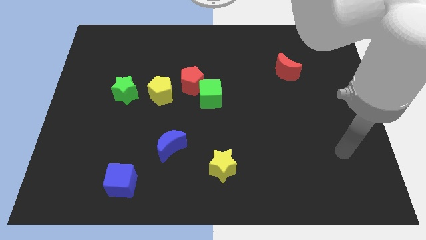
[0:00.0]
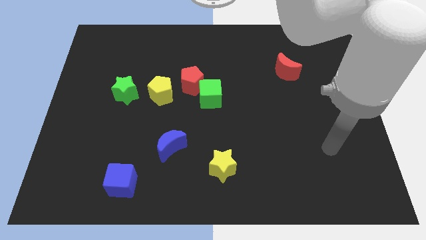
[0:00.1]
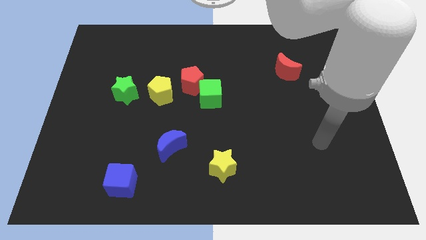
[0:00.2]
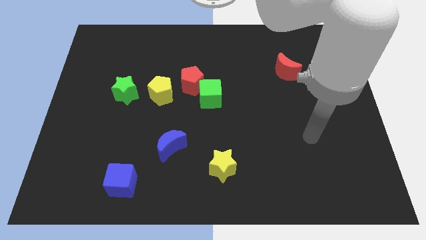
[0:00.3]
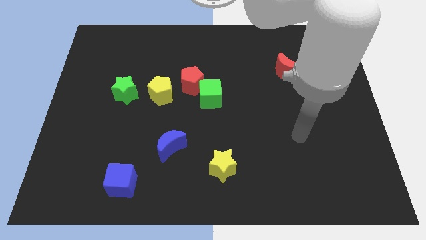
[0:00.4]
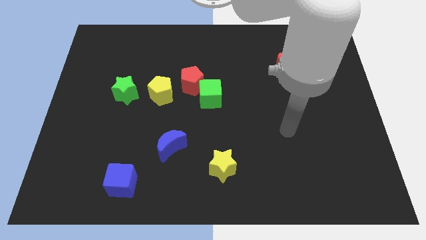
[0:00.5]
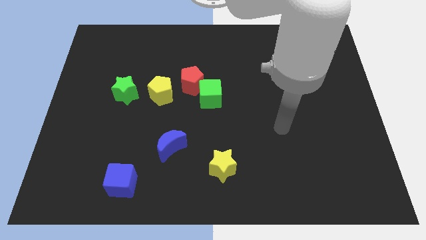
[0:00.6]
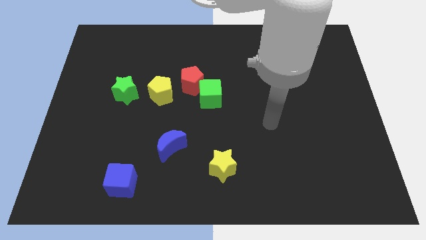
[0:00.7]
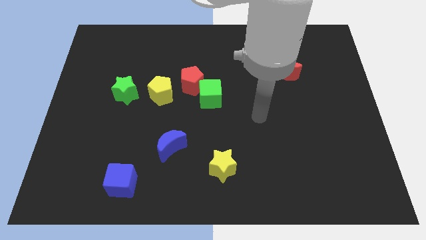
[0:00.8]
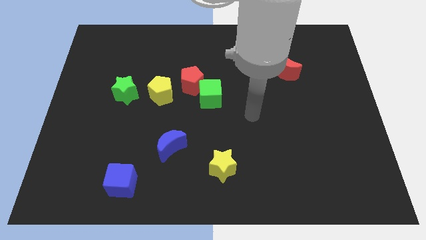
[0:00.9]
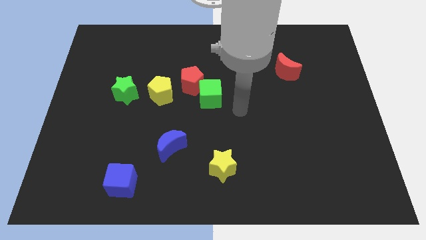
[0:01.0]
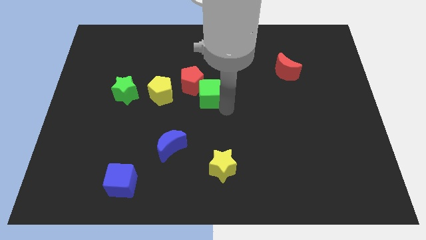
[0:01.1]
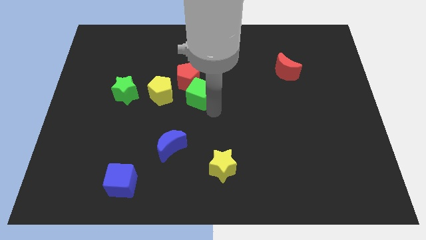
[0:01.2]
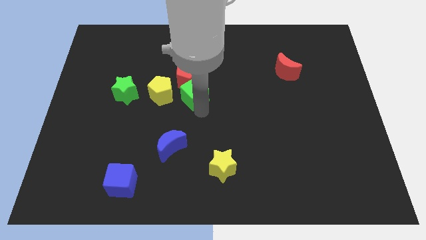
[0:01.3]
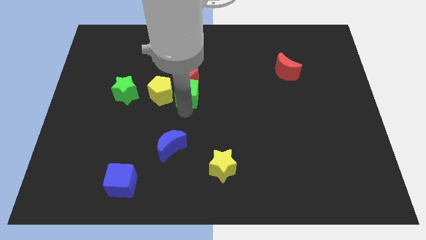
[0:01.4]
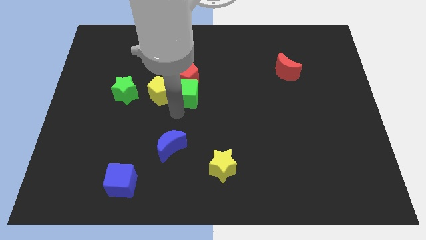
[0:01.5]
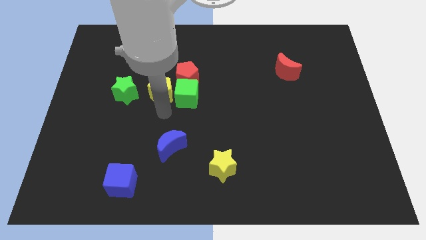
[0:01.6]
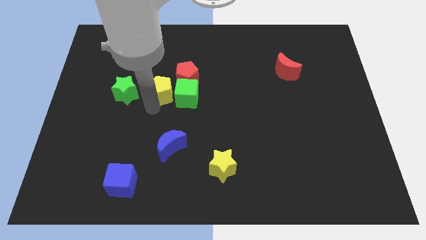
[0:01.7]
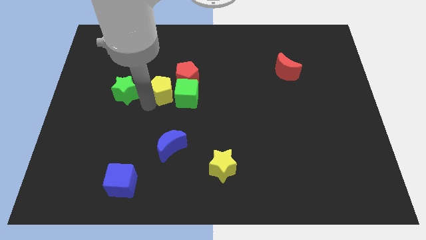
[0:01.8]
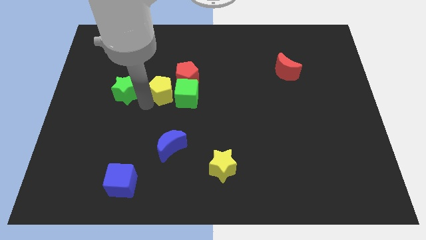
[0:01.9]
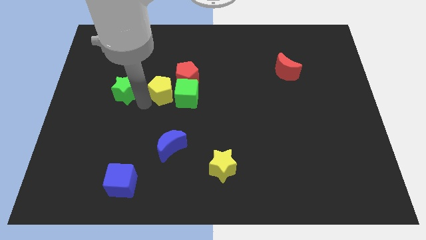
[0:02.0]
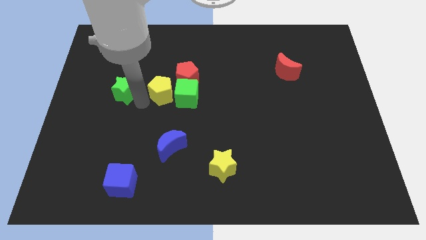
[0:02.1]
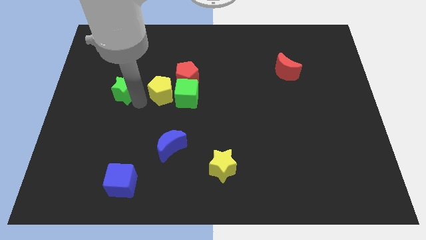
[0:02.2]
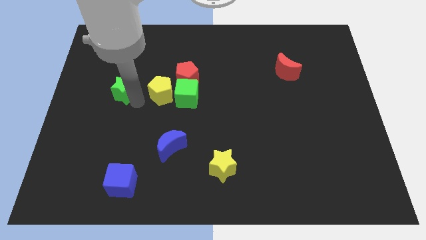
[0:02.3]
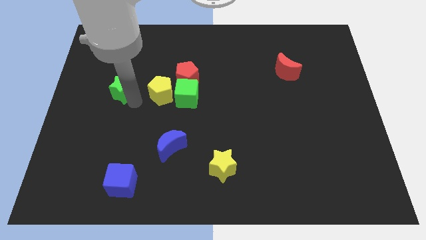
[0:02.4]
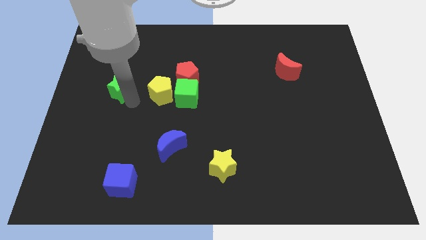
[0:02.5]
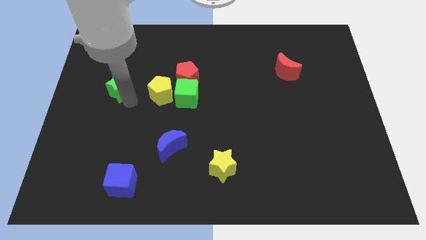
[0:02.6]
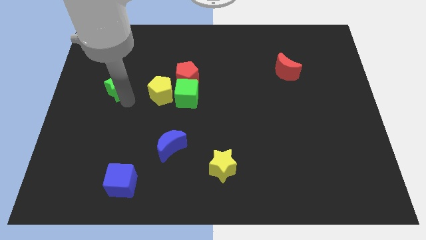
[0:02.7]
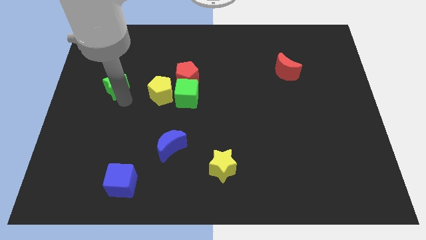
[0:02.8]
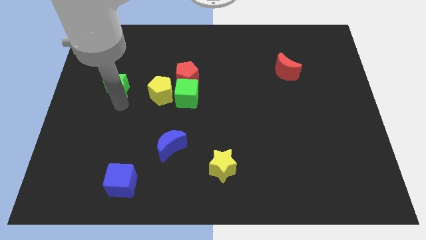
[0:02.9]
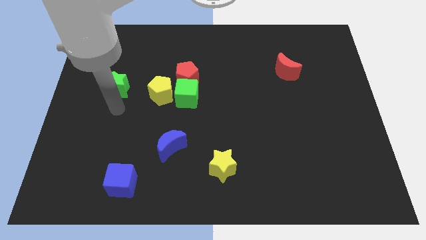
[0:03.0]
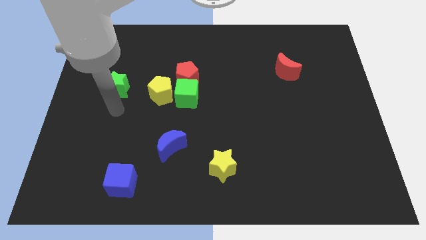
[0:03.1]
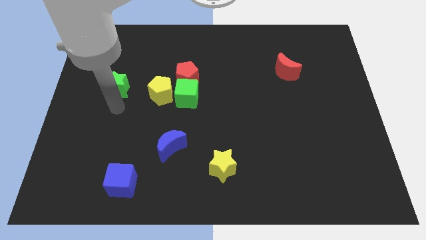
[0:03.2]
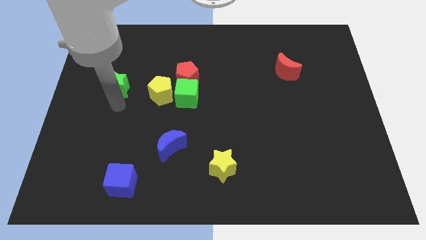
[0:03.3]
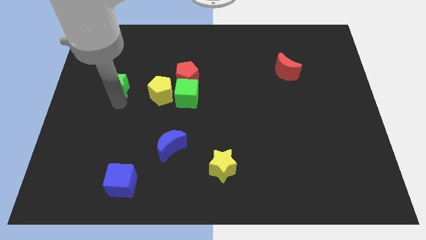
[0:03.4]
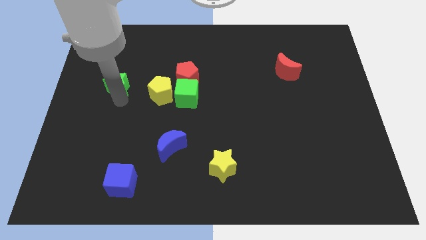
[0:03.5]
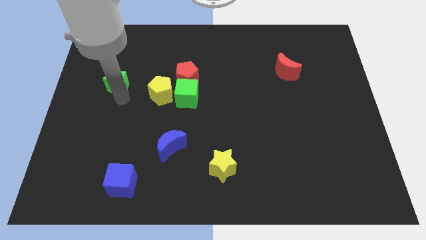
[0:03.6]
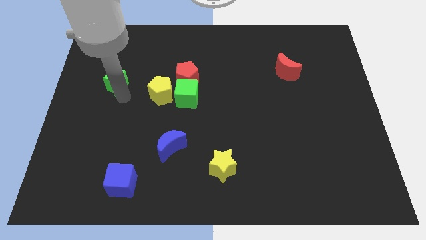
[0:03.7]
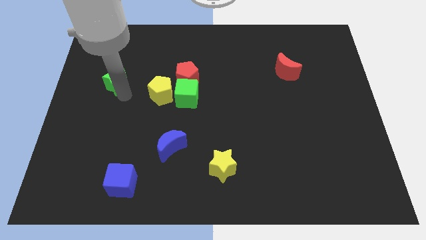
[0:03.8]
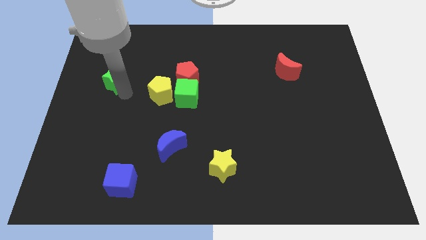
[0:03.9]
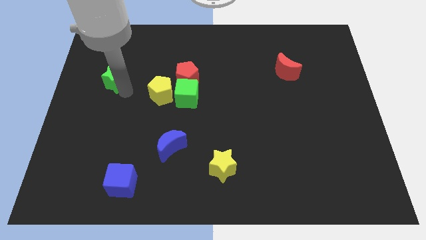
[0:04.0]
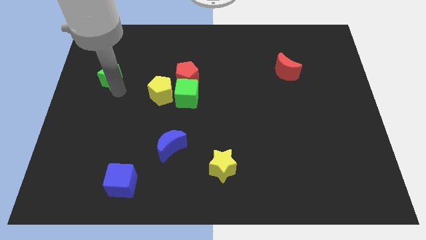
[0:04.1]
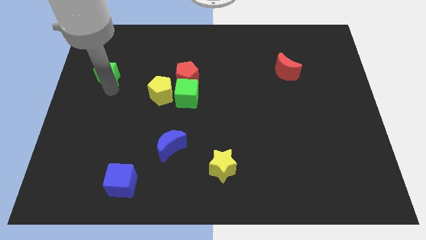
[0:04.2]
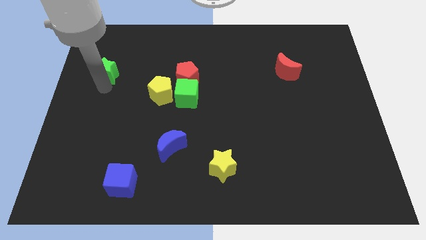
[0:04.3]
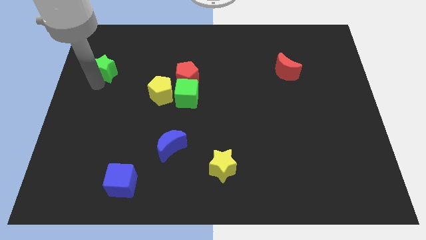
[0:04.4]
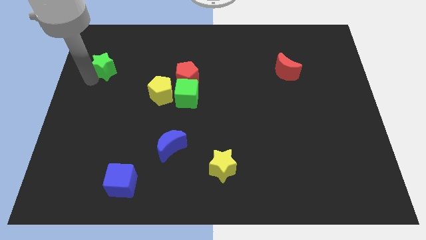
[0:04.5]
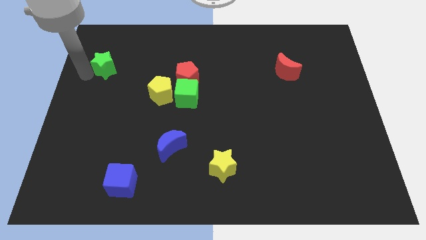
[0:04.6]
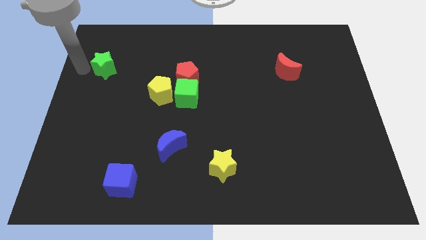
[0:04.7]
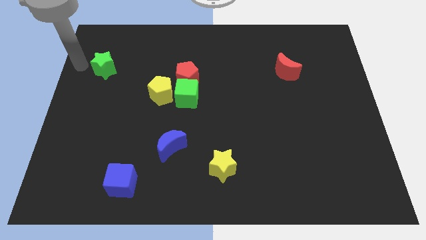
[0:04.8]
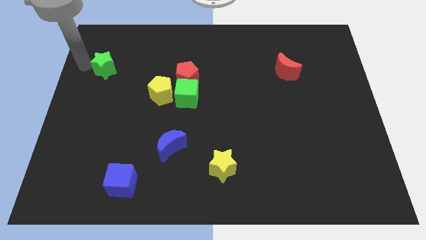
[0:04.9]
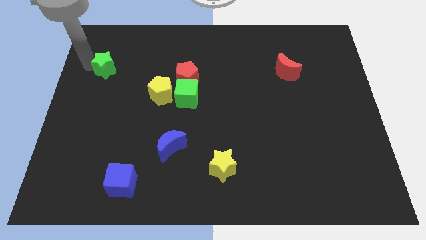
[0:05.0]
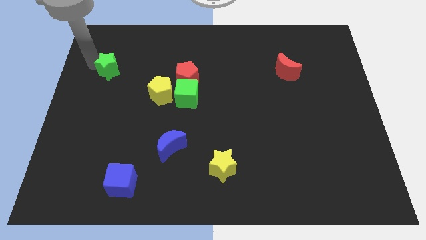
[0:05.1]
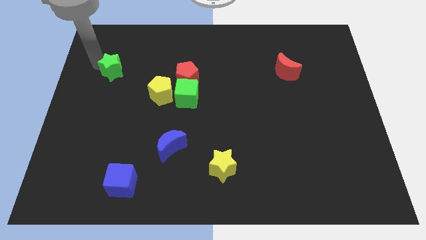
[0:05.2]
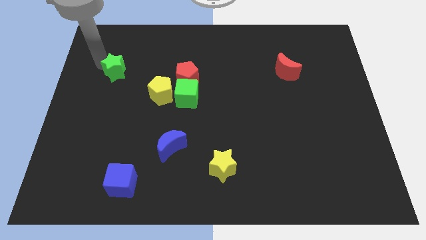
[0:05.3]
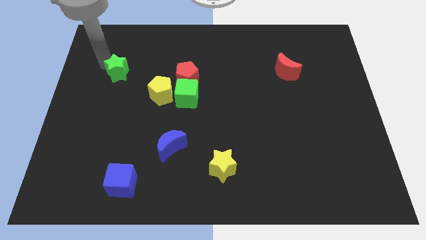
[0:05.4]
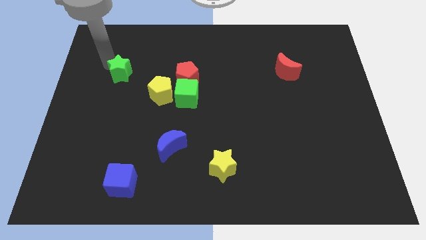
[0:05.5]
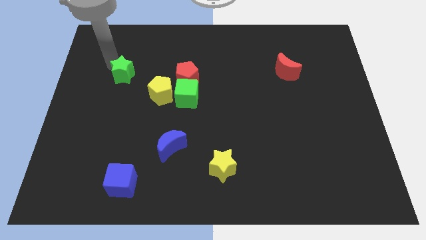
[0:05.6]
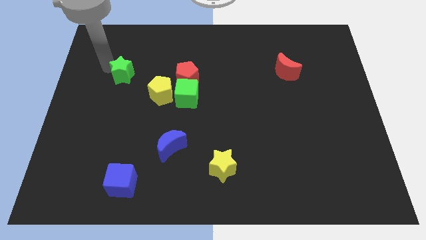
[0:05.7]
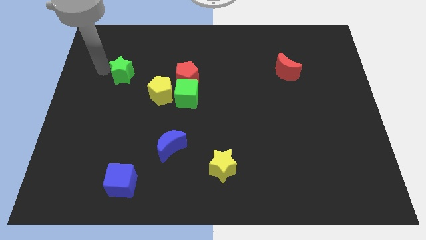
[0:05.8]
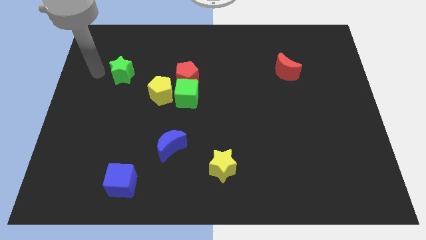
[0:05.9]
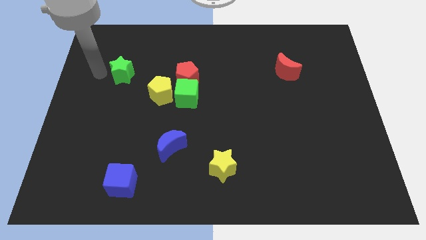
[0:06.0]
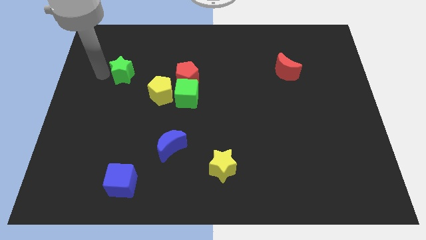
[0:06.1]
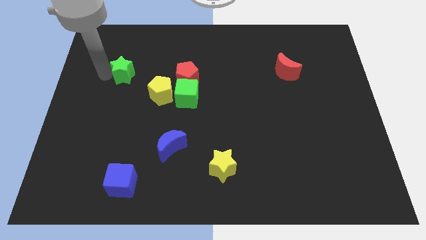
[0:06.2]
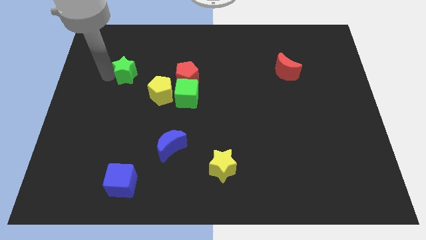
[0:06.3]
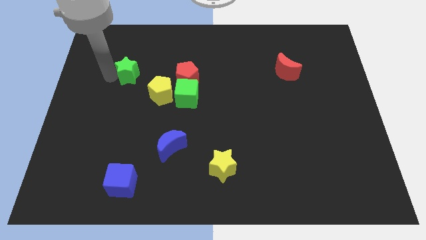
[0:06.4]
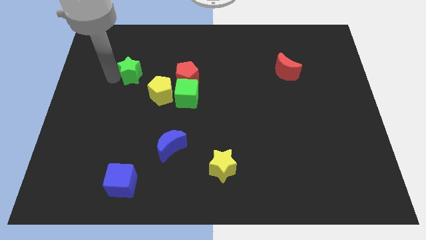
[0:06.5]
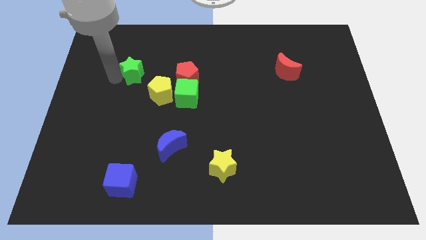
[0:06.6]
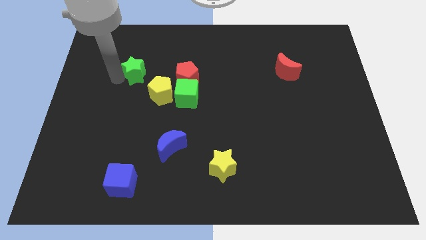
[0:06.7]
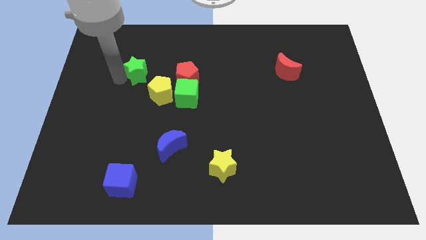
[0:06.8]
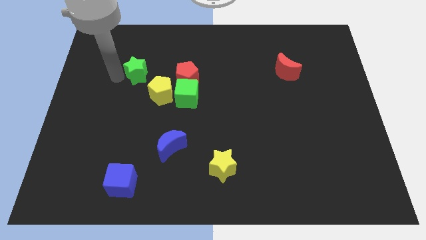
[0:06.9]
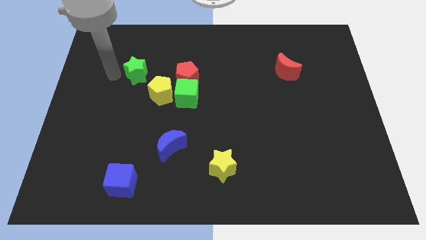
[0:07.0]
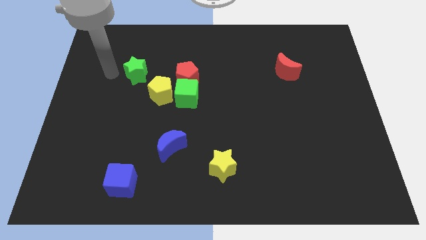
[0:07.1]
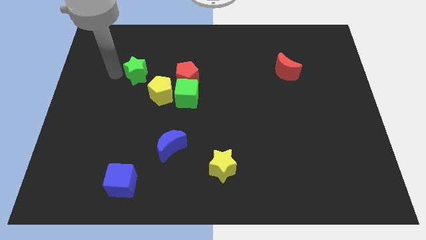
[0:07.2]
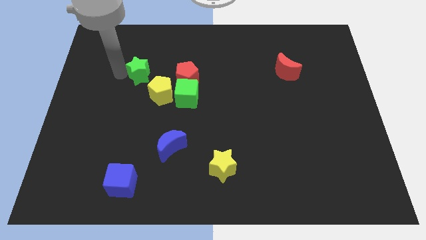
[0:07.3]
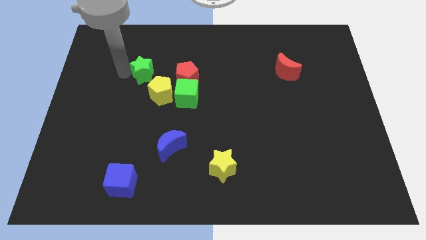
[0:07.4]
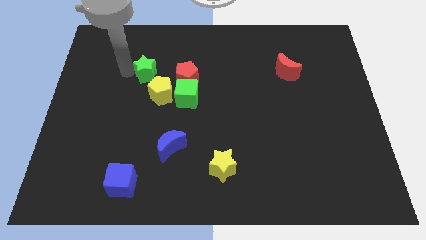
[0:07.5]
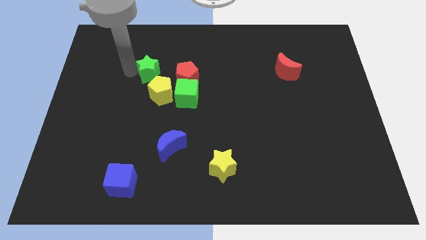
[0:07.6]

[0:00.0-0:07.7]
slide the green star to the top left side of the green cube
